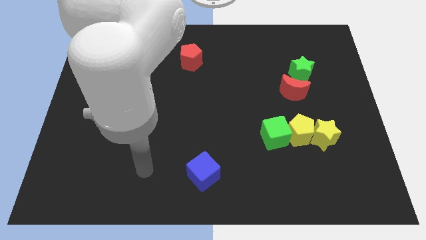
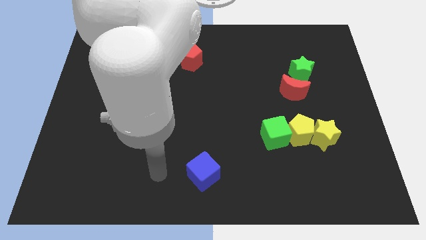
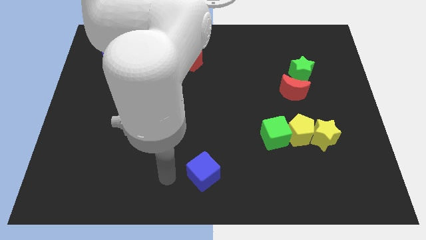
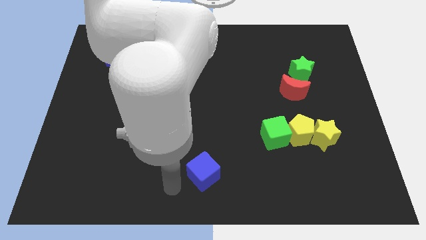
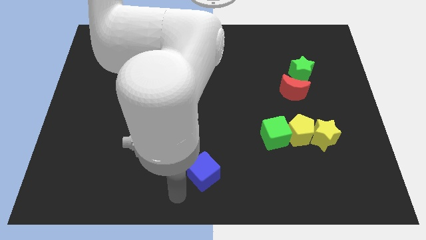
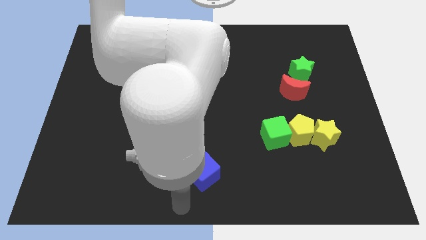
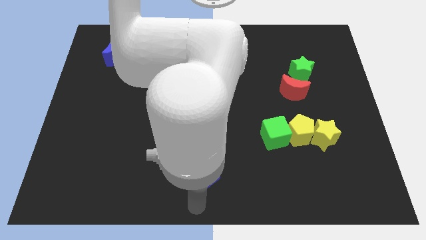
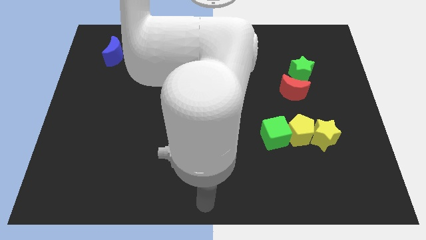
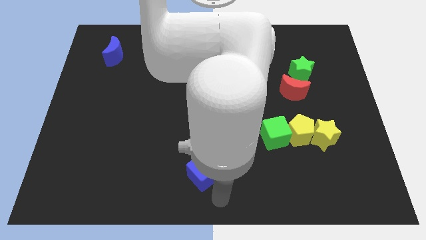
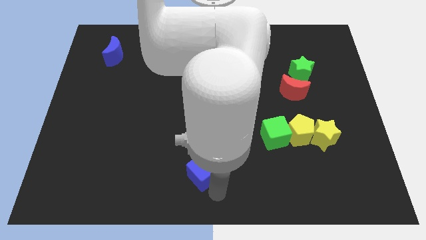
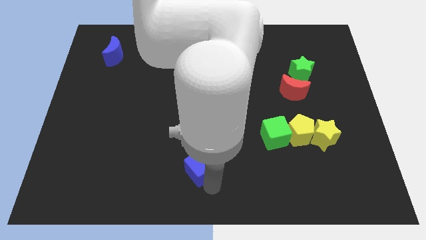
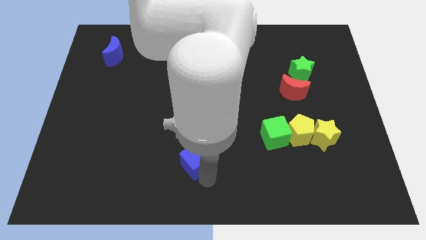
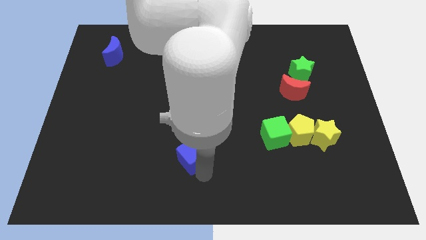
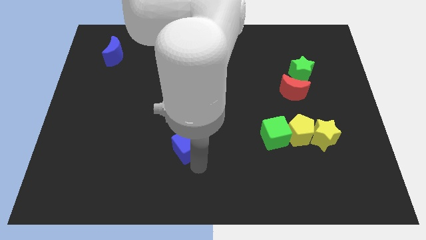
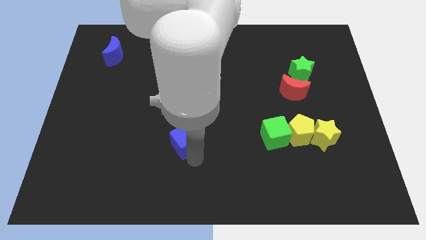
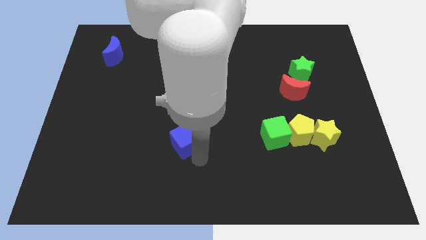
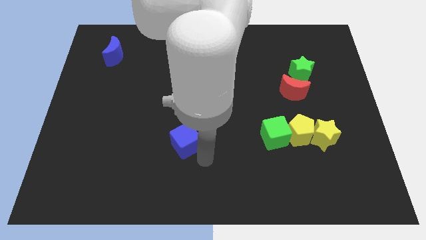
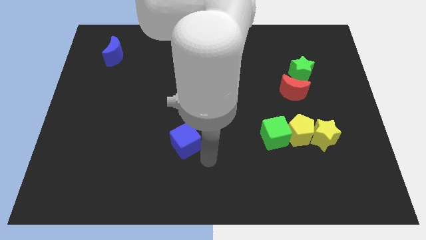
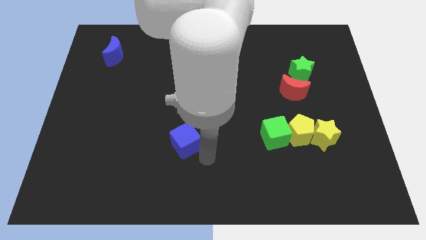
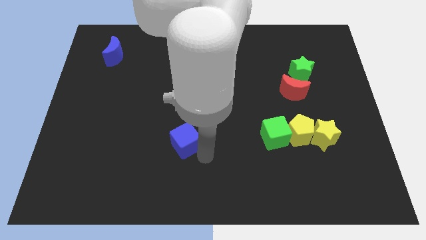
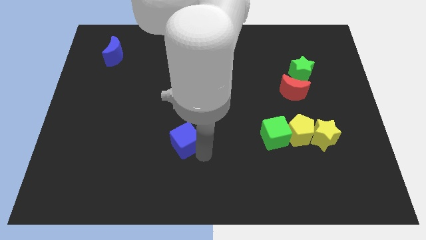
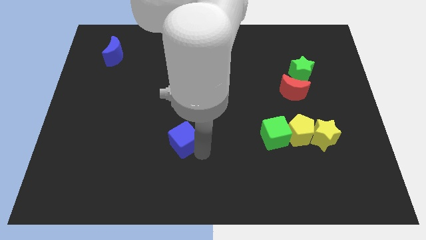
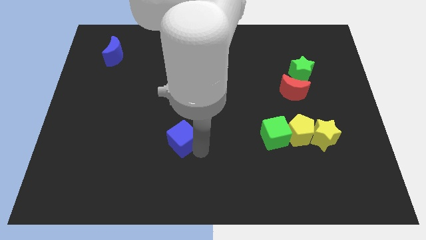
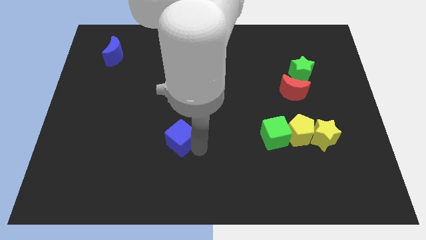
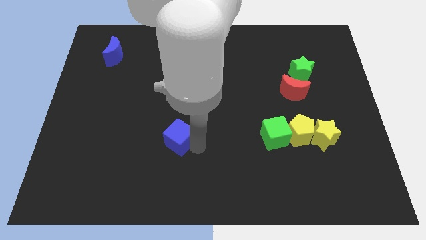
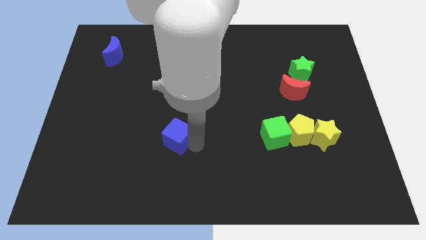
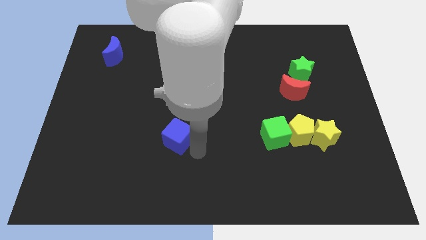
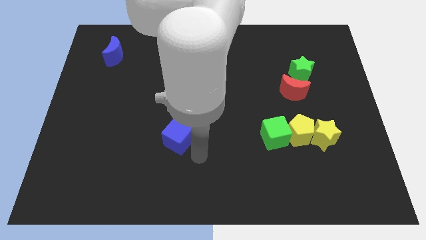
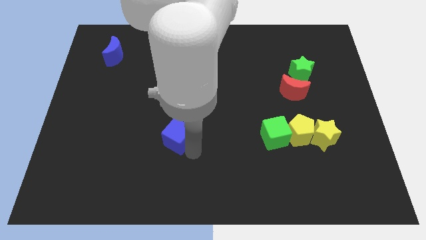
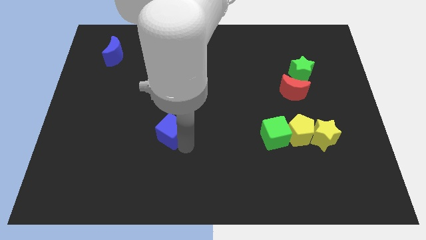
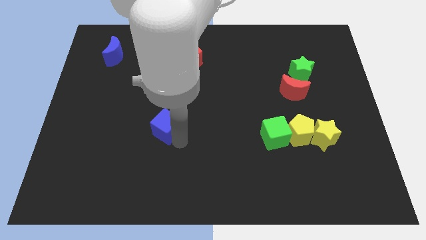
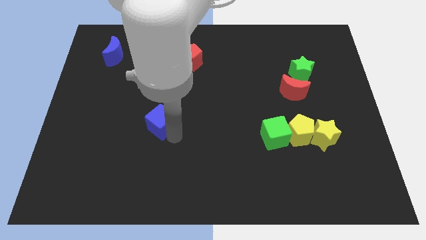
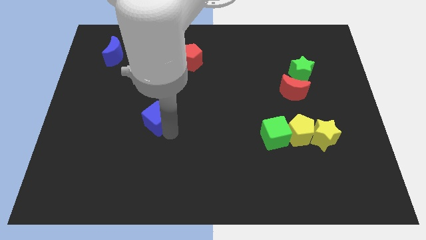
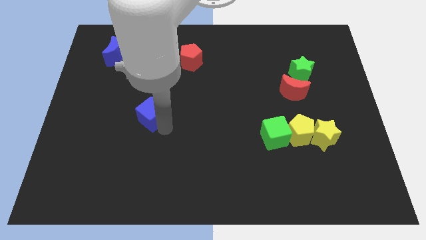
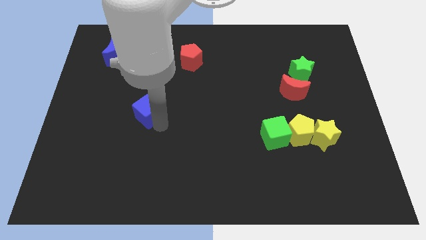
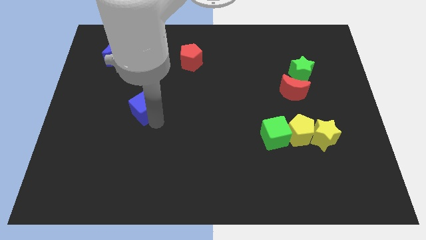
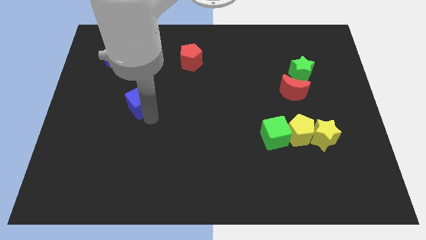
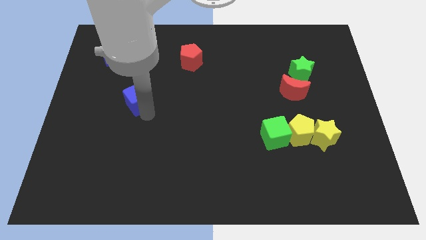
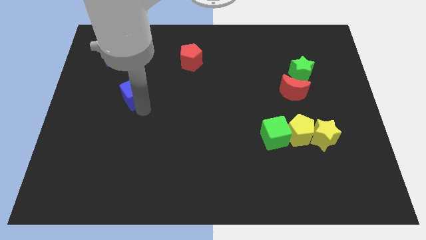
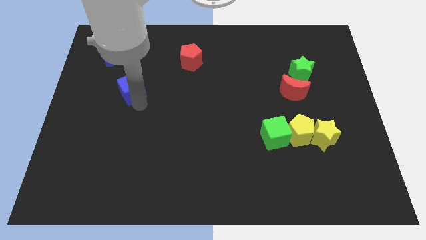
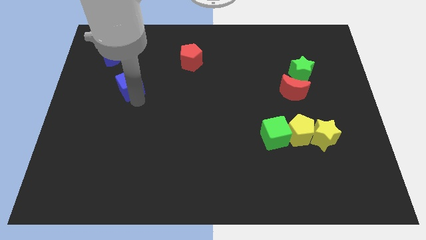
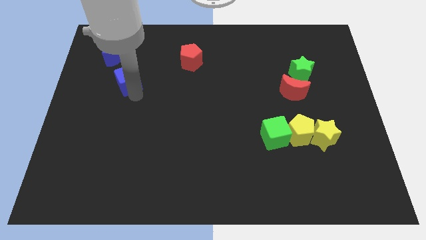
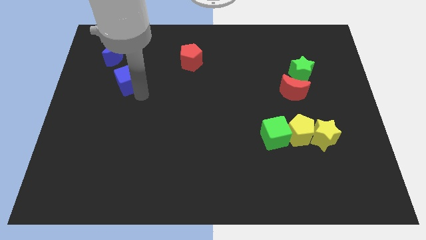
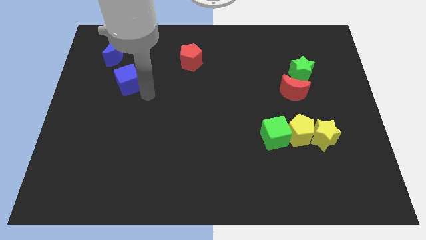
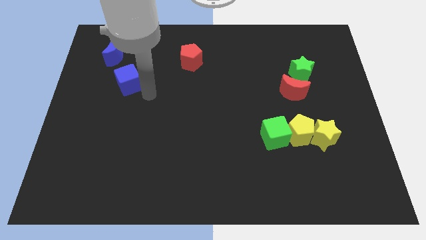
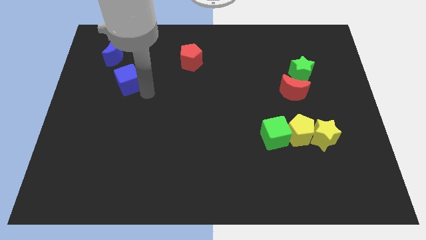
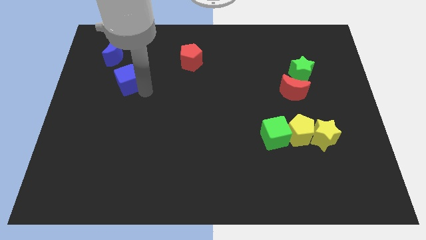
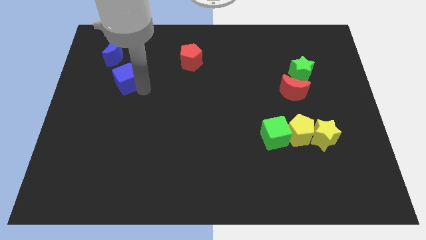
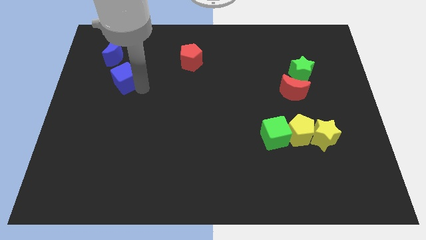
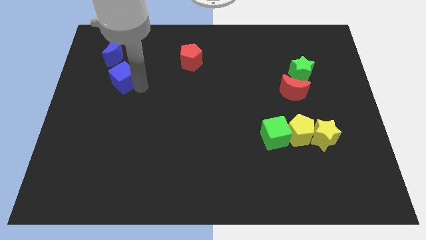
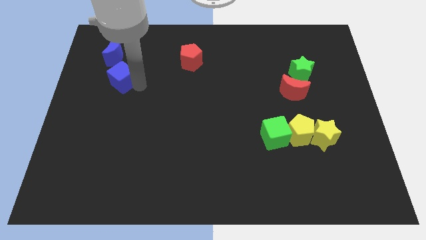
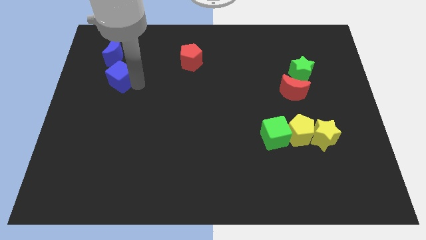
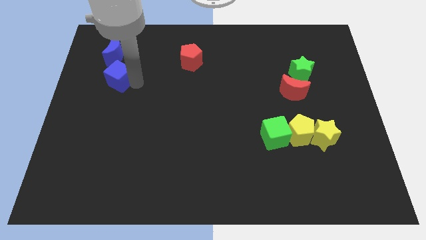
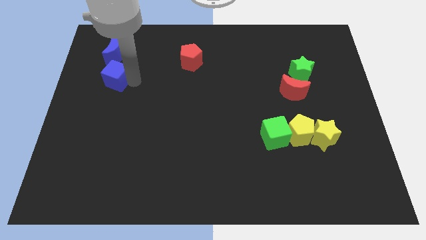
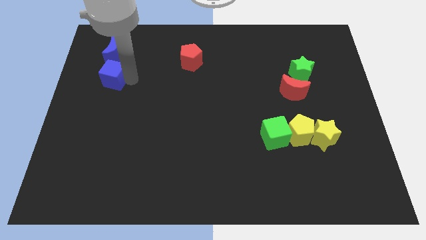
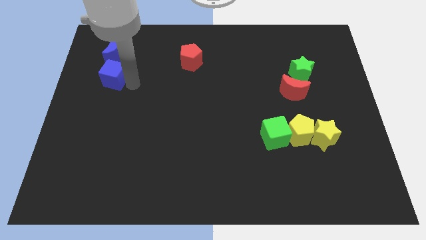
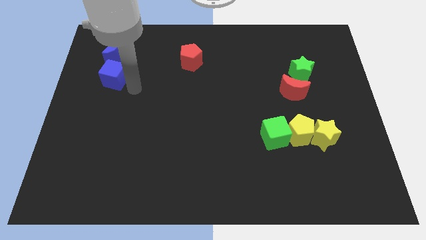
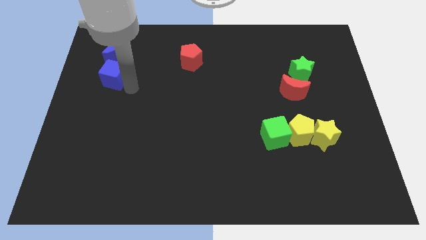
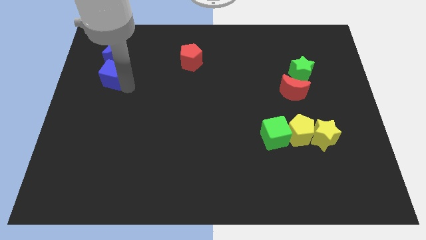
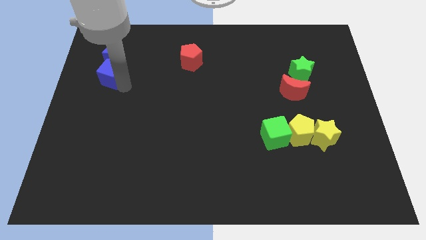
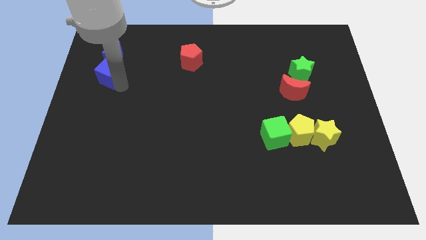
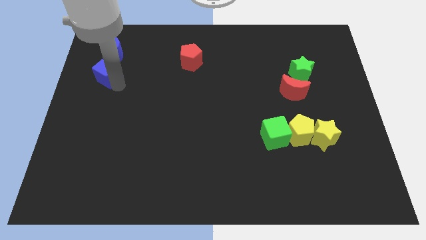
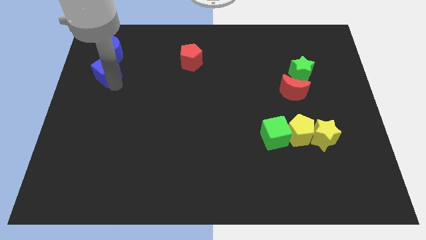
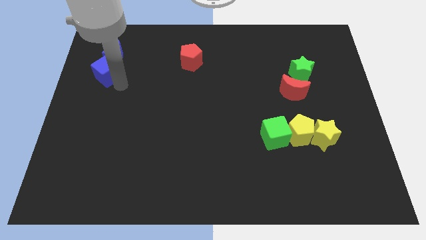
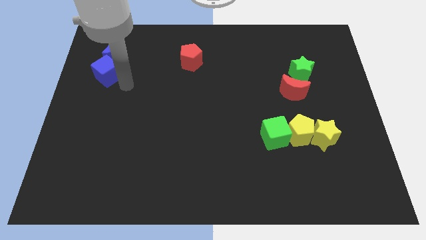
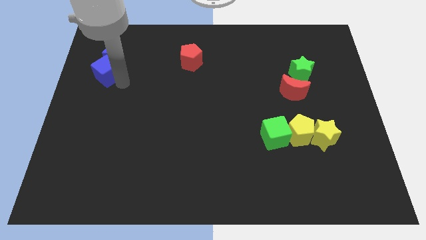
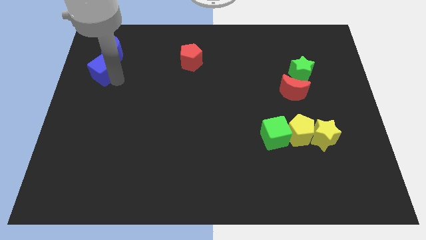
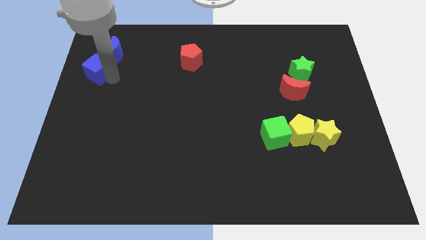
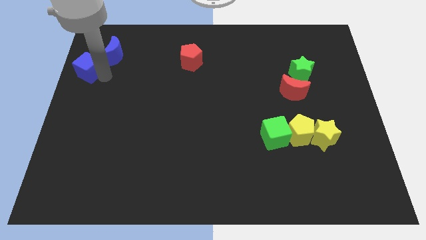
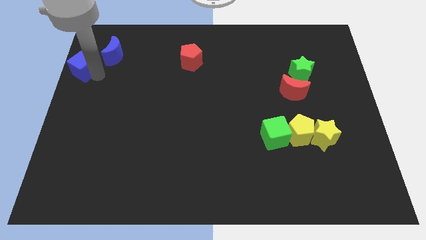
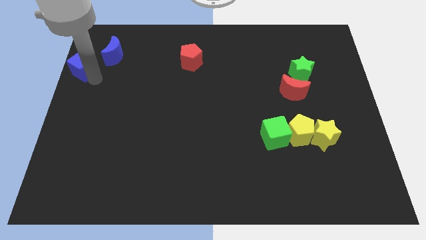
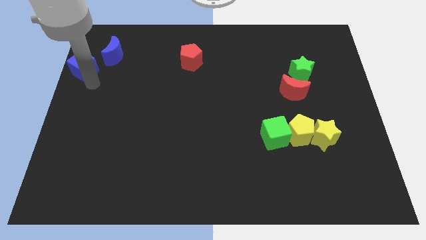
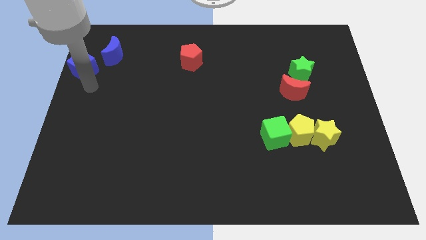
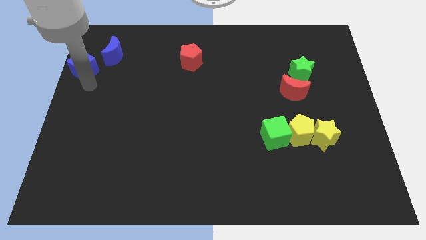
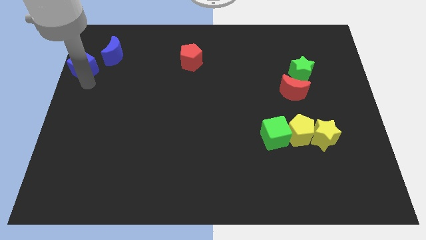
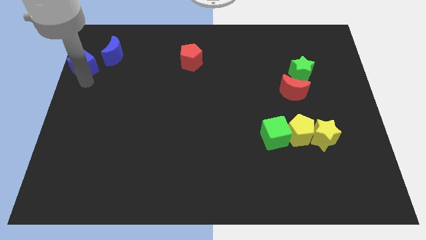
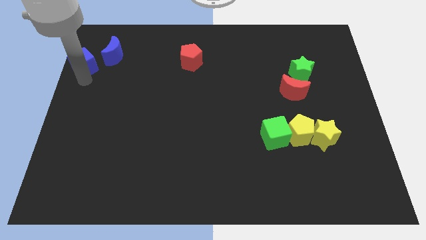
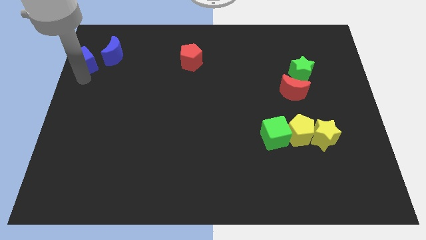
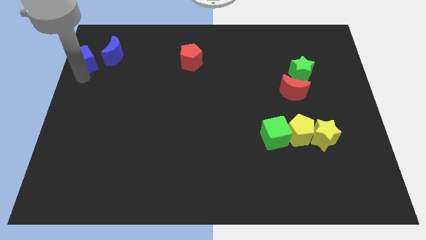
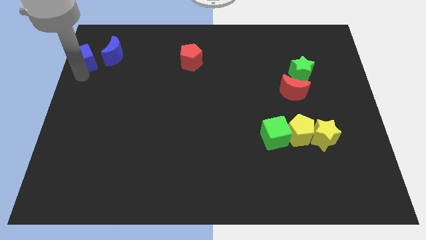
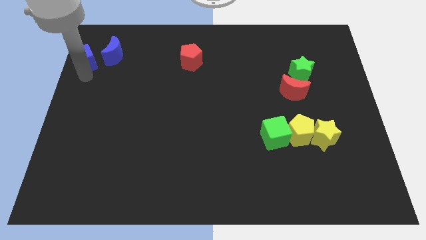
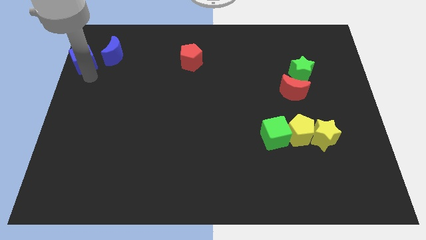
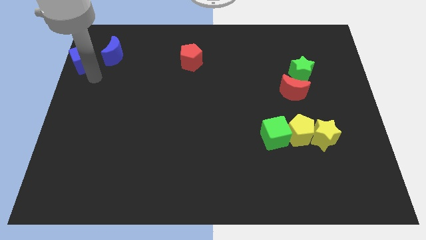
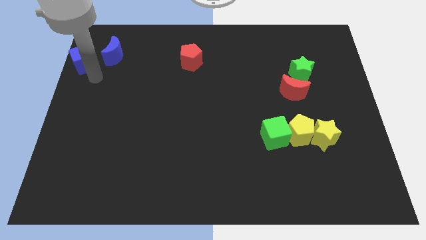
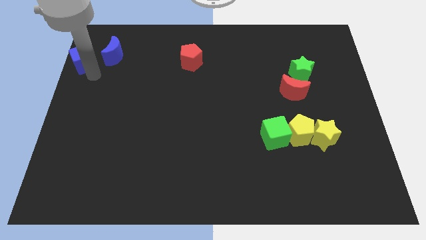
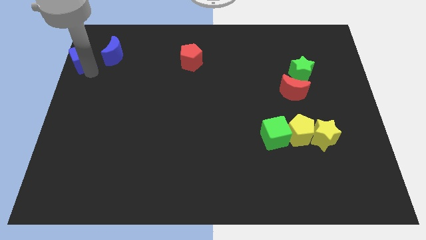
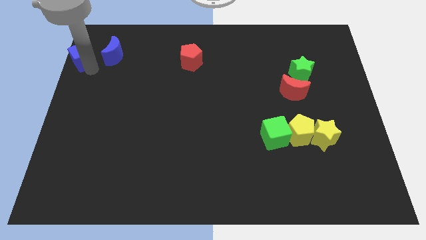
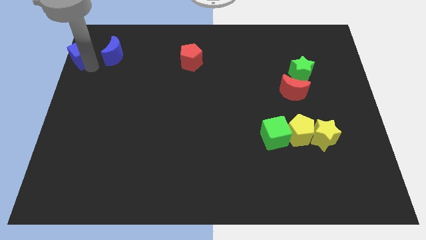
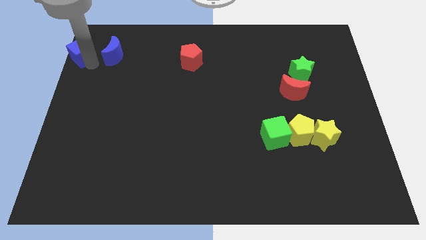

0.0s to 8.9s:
move the blue cube to the upper left corner
